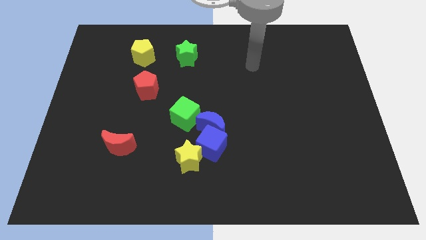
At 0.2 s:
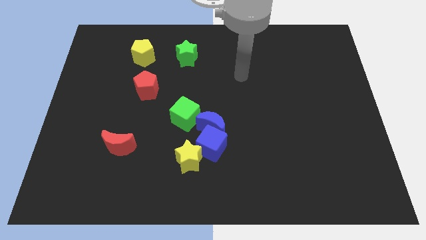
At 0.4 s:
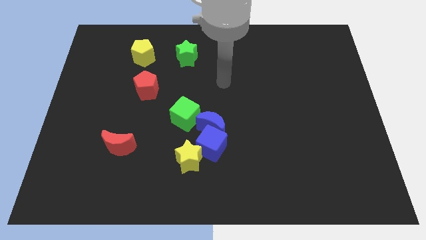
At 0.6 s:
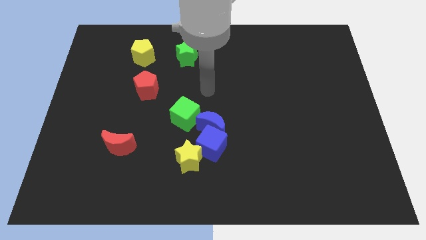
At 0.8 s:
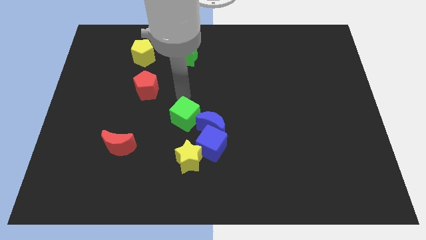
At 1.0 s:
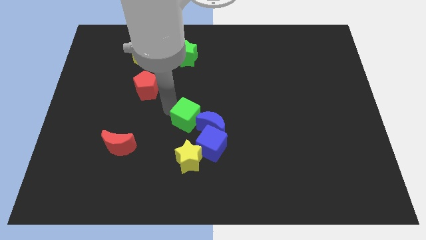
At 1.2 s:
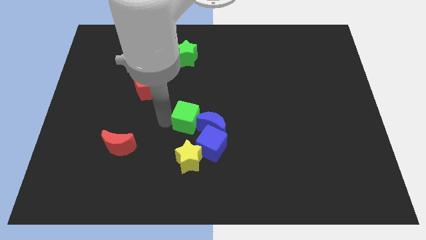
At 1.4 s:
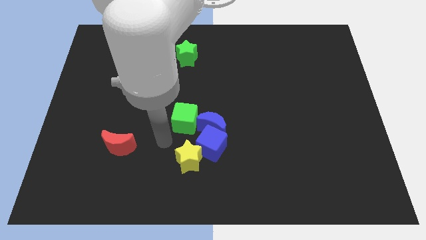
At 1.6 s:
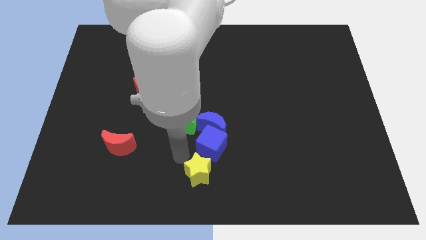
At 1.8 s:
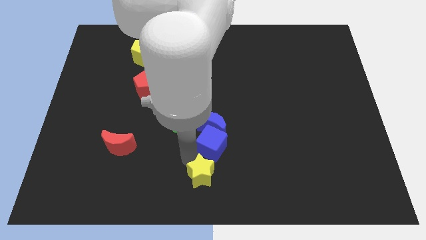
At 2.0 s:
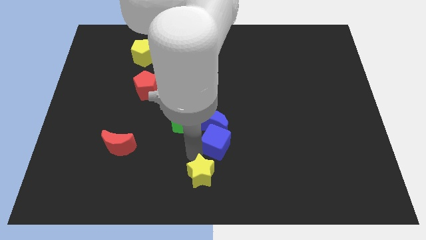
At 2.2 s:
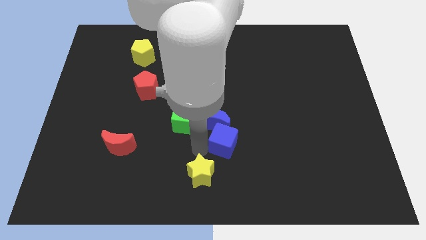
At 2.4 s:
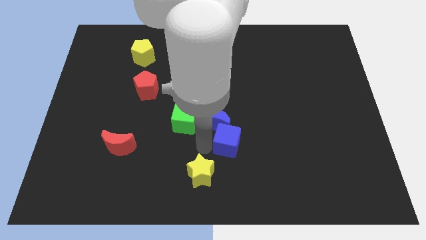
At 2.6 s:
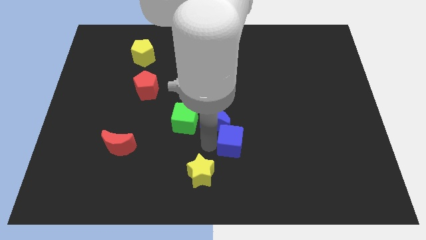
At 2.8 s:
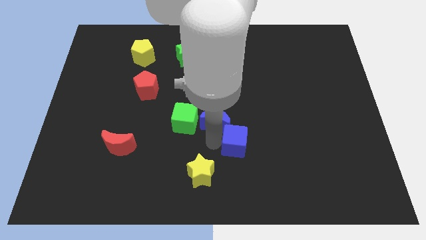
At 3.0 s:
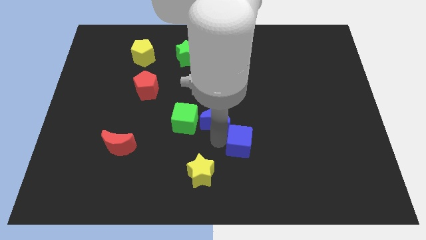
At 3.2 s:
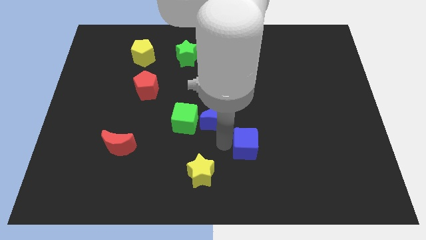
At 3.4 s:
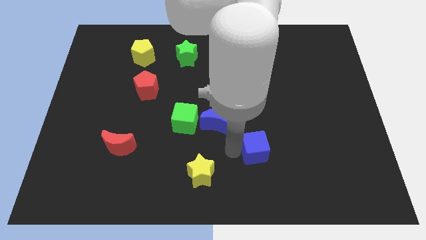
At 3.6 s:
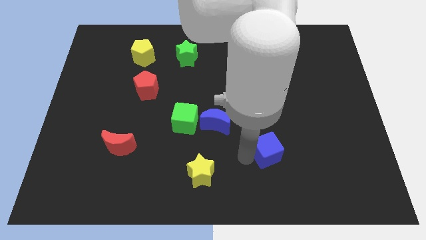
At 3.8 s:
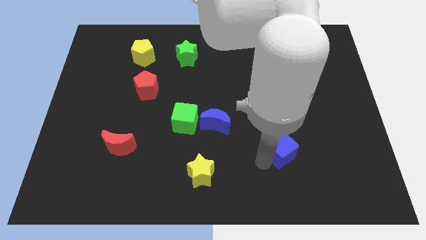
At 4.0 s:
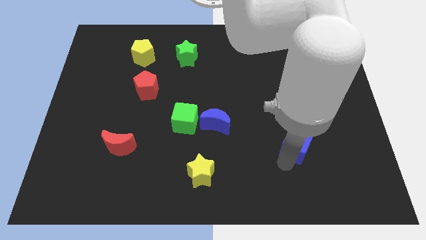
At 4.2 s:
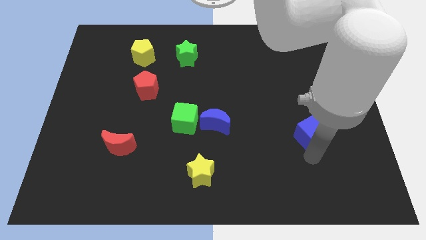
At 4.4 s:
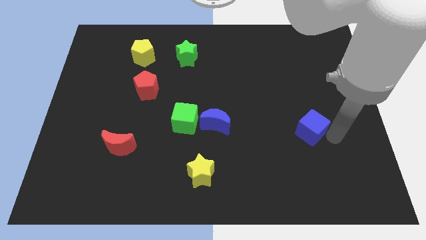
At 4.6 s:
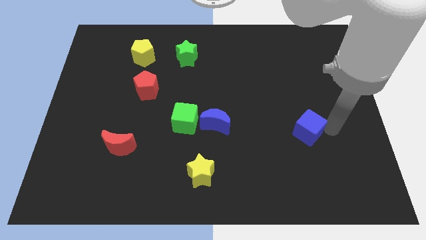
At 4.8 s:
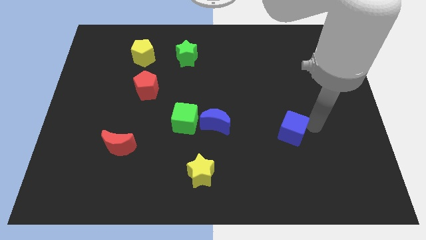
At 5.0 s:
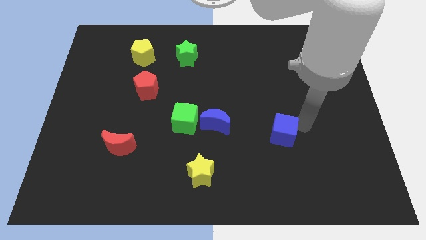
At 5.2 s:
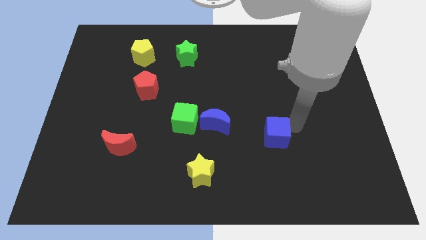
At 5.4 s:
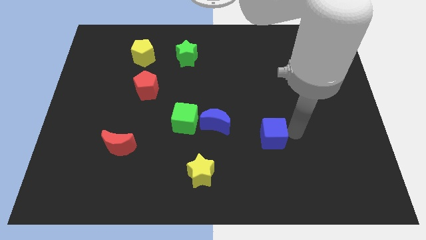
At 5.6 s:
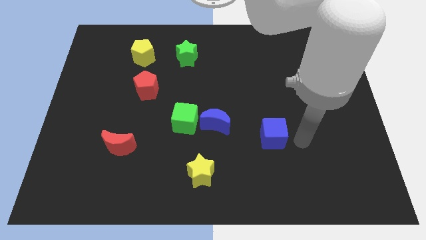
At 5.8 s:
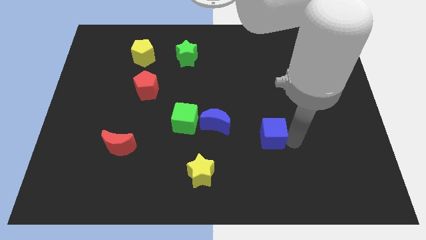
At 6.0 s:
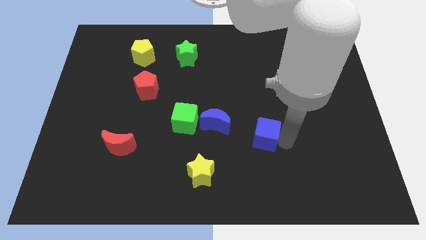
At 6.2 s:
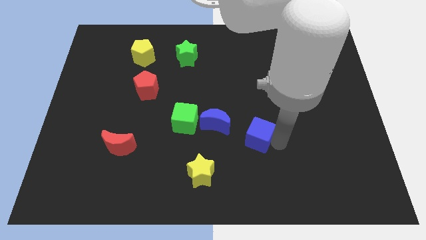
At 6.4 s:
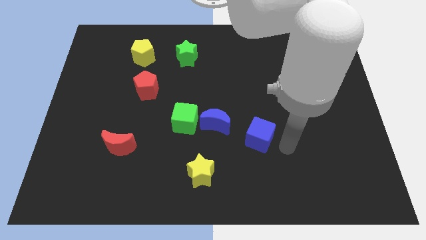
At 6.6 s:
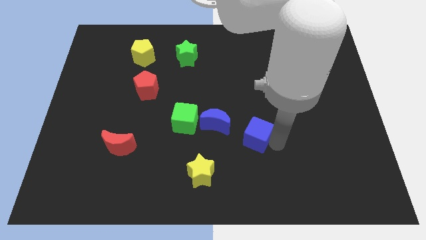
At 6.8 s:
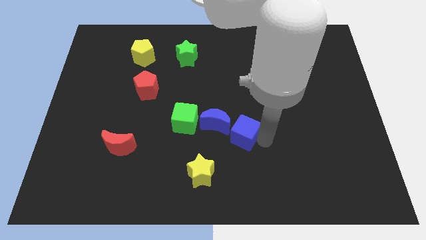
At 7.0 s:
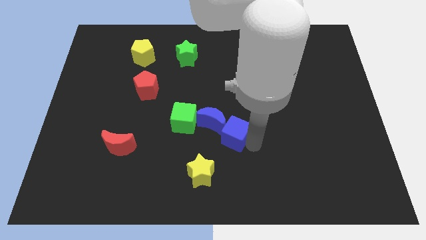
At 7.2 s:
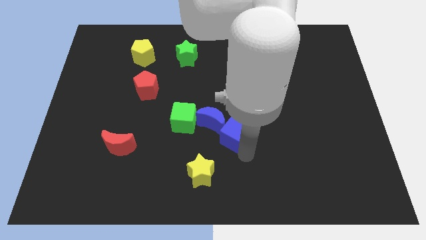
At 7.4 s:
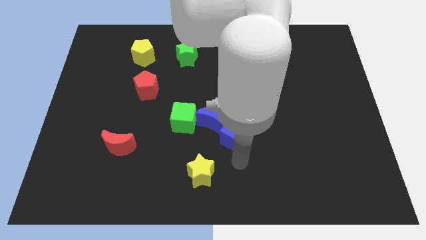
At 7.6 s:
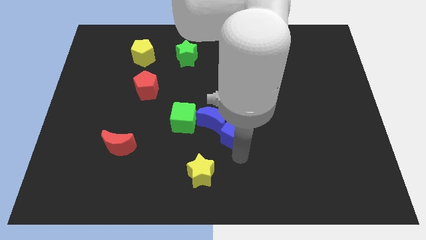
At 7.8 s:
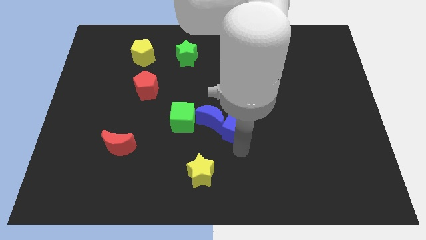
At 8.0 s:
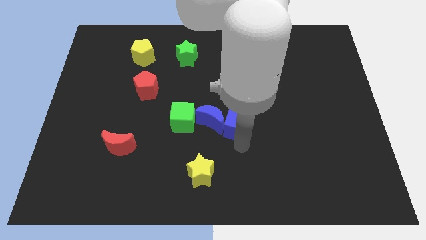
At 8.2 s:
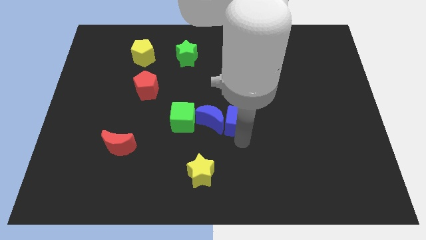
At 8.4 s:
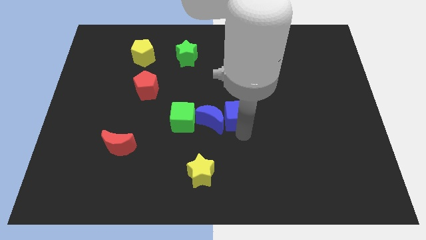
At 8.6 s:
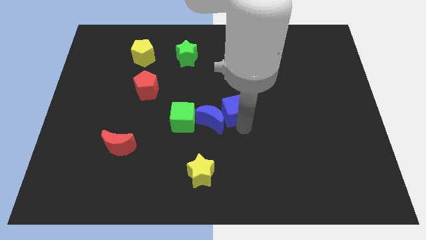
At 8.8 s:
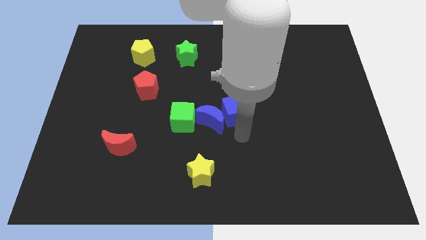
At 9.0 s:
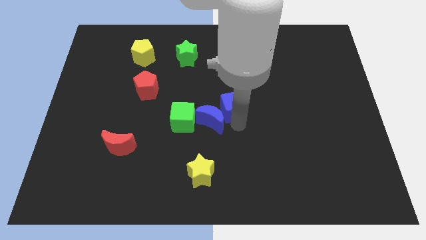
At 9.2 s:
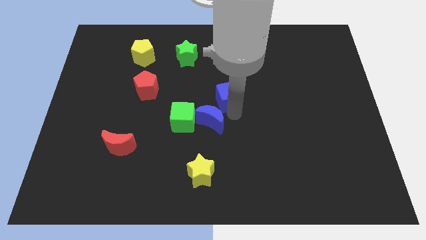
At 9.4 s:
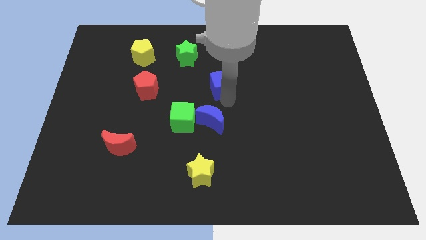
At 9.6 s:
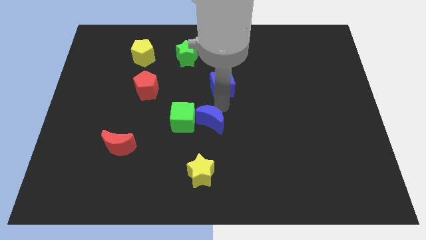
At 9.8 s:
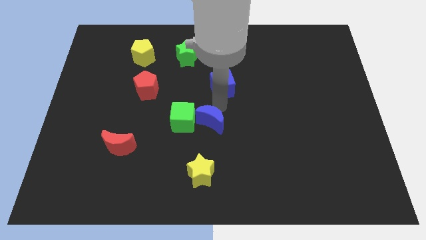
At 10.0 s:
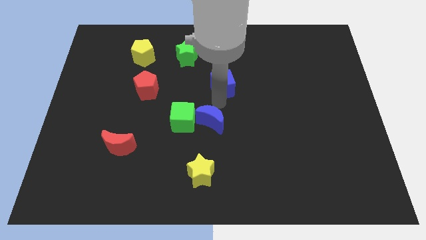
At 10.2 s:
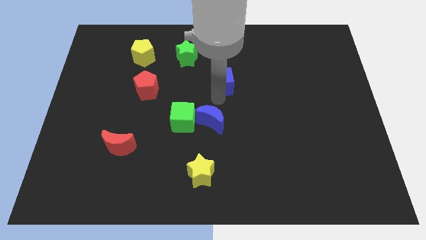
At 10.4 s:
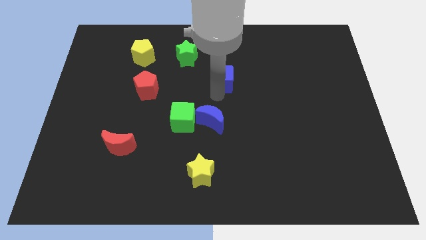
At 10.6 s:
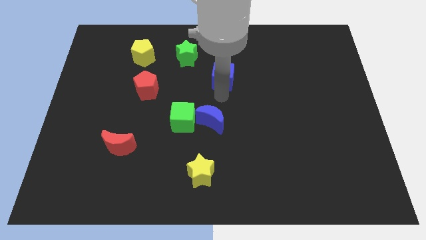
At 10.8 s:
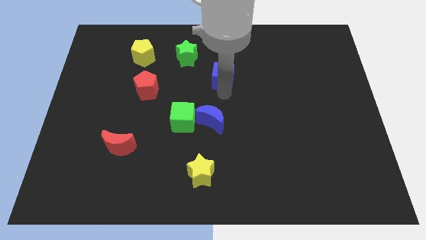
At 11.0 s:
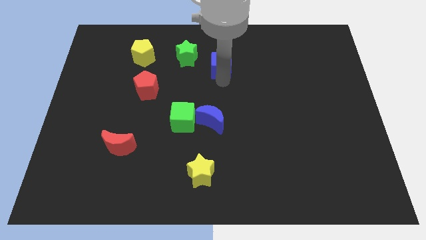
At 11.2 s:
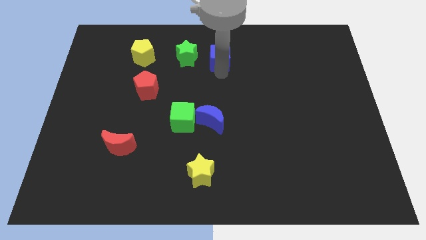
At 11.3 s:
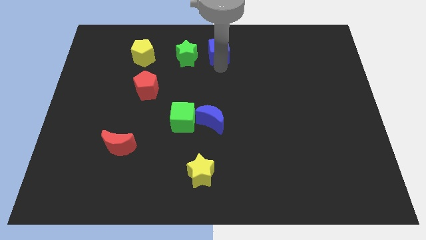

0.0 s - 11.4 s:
slide the blue cube to the top side
